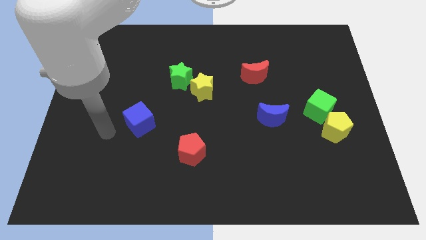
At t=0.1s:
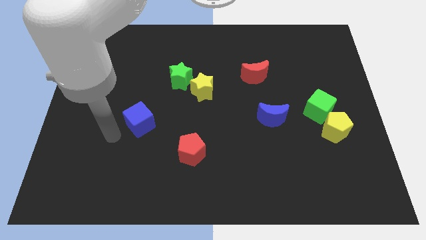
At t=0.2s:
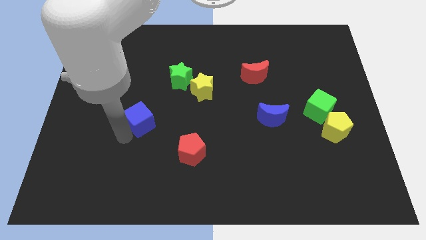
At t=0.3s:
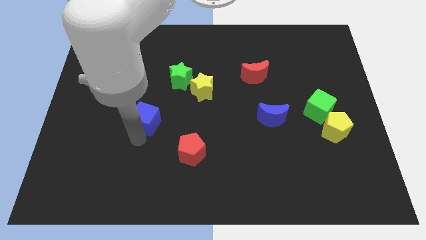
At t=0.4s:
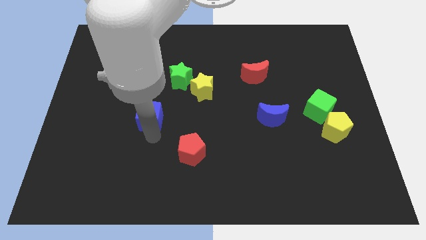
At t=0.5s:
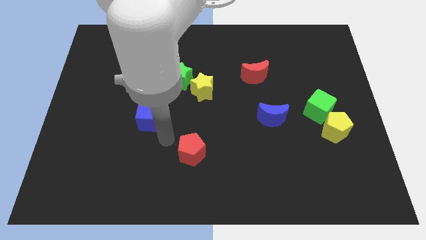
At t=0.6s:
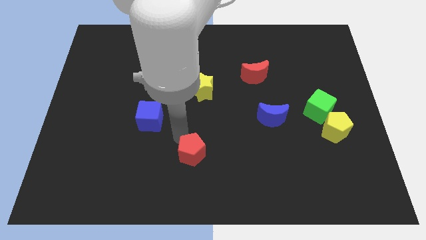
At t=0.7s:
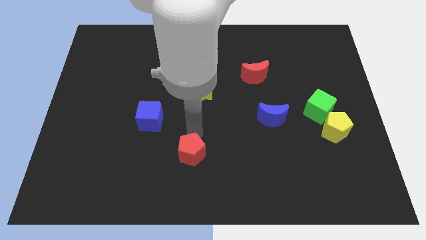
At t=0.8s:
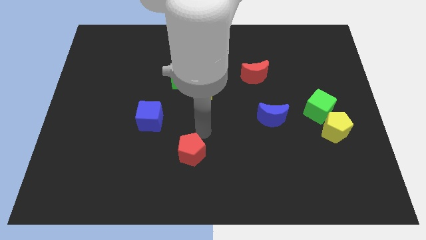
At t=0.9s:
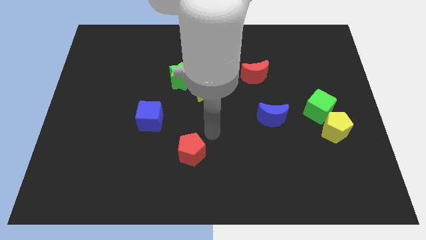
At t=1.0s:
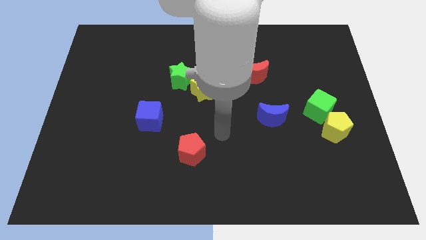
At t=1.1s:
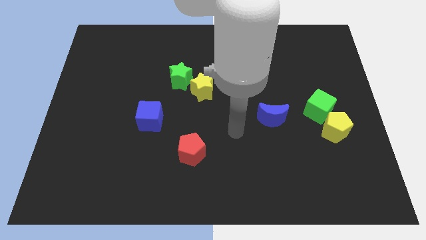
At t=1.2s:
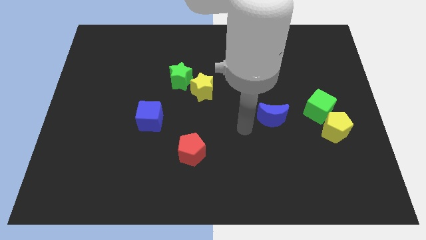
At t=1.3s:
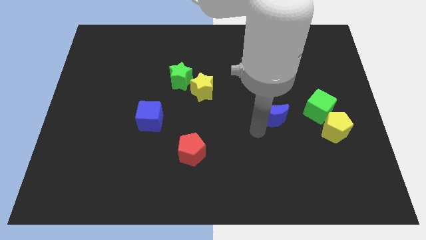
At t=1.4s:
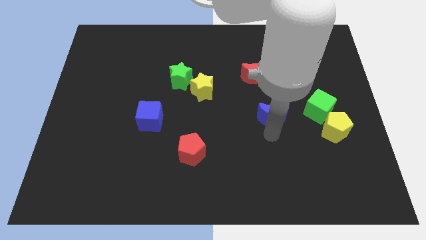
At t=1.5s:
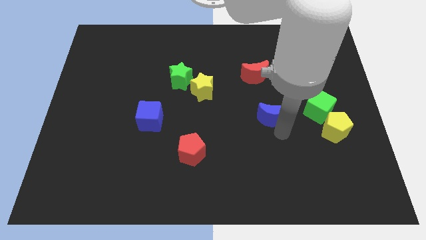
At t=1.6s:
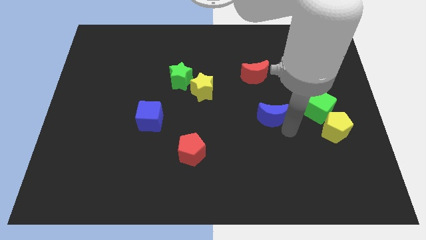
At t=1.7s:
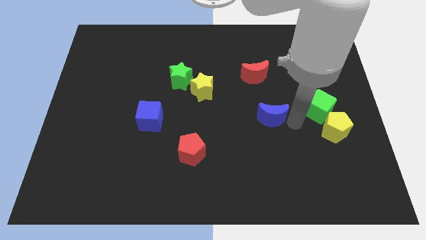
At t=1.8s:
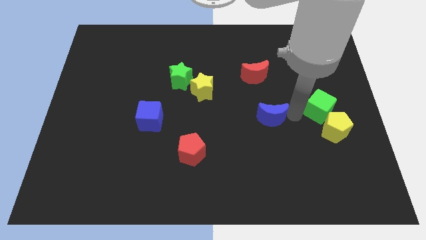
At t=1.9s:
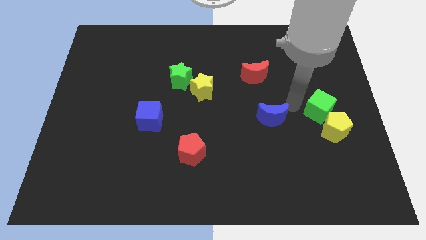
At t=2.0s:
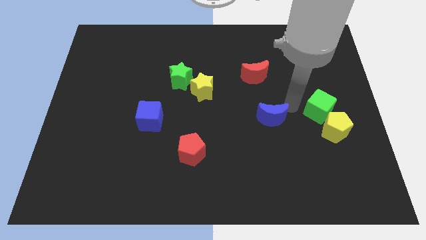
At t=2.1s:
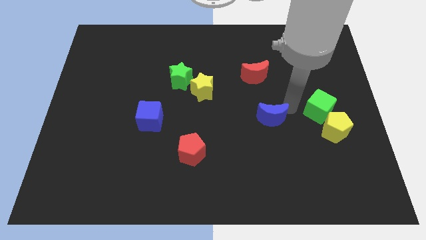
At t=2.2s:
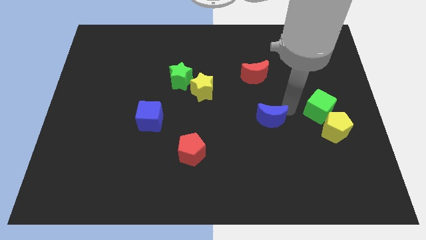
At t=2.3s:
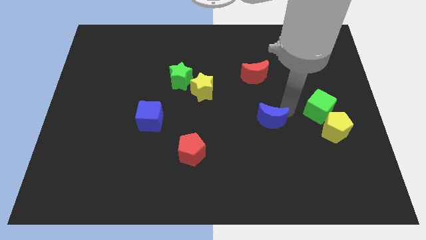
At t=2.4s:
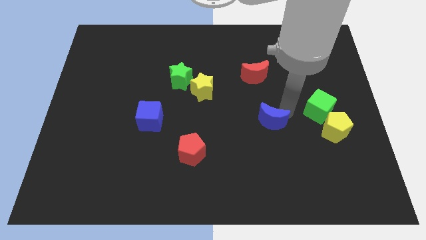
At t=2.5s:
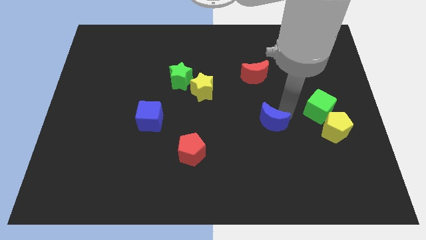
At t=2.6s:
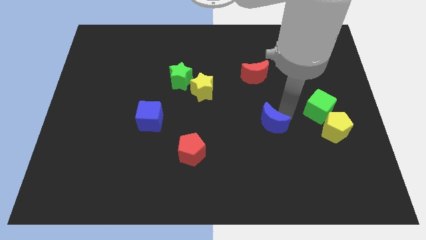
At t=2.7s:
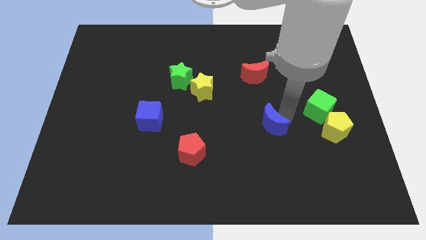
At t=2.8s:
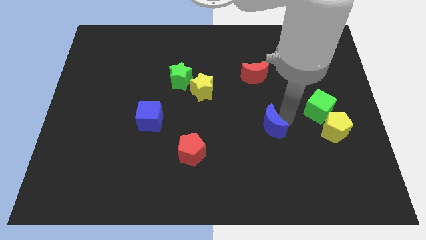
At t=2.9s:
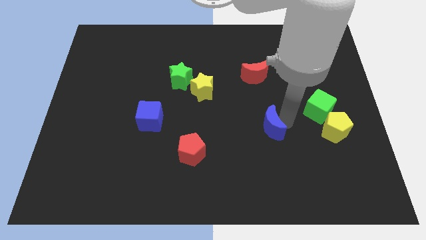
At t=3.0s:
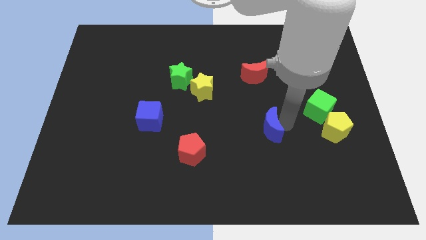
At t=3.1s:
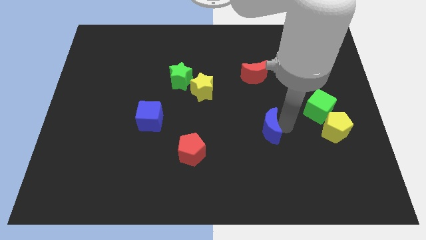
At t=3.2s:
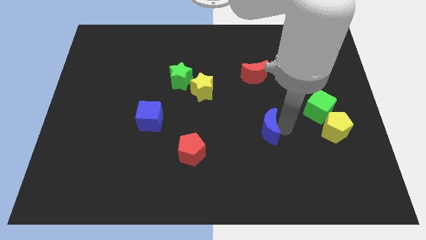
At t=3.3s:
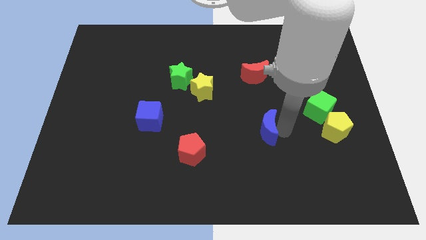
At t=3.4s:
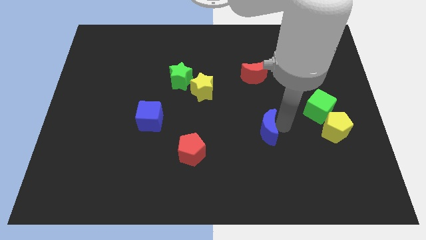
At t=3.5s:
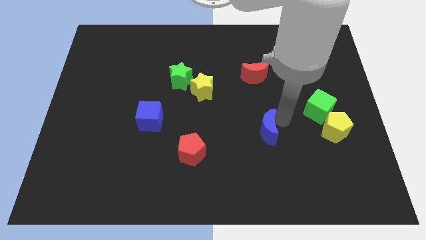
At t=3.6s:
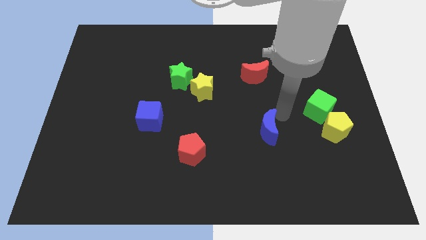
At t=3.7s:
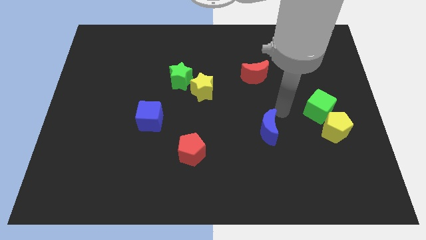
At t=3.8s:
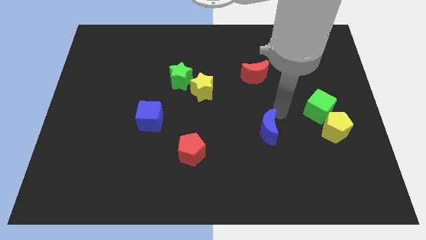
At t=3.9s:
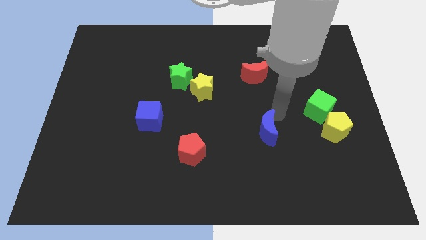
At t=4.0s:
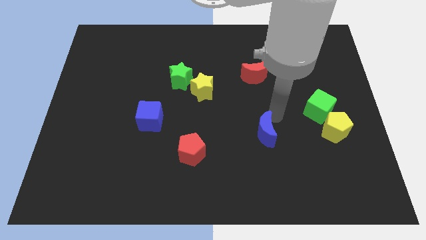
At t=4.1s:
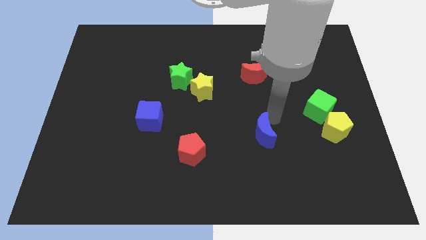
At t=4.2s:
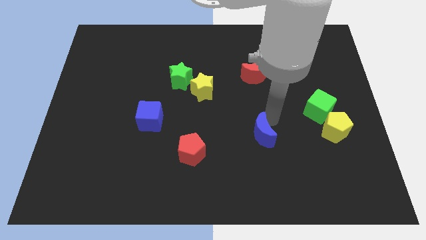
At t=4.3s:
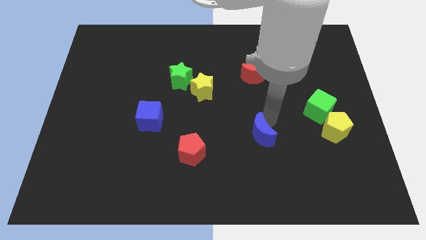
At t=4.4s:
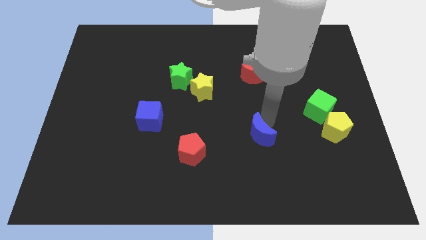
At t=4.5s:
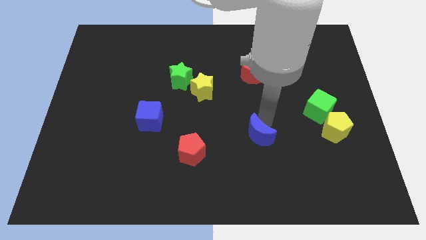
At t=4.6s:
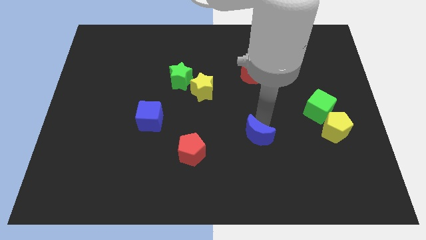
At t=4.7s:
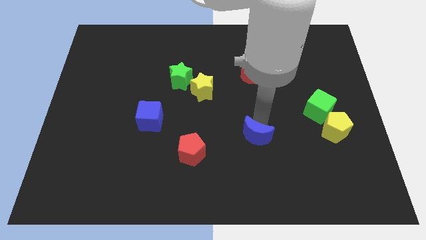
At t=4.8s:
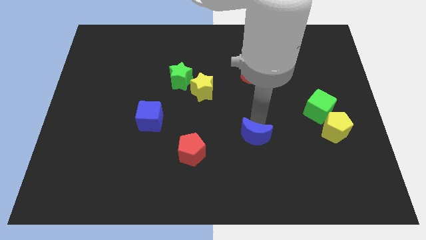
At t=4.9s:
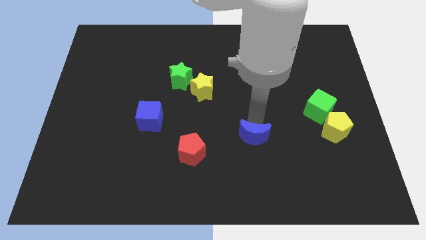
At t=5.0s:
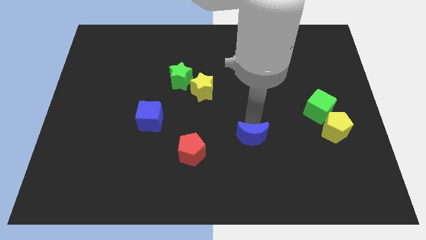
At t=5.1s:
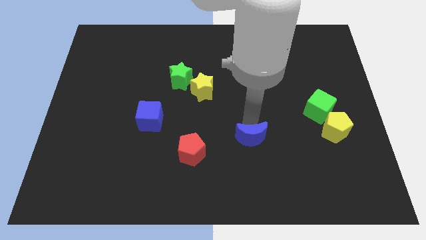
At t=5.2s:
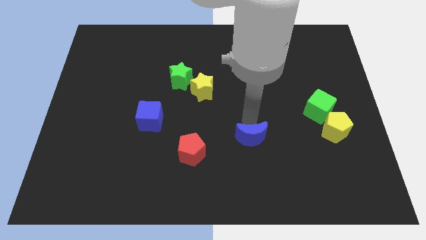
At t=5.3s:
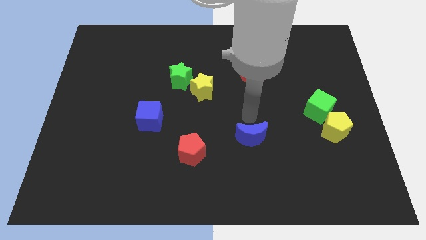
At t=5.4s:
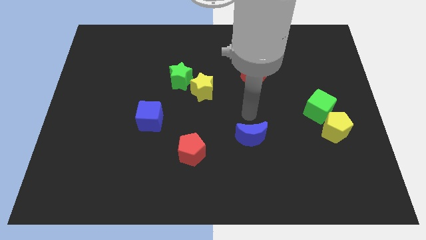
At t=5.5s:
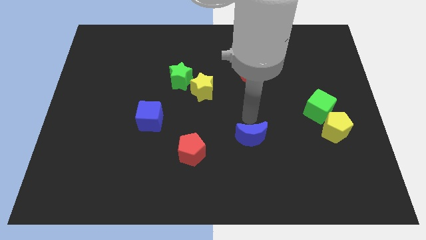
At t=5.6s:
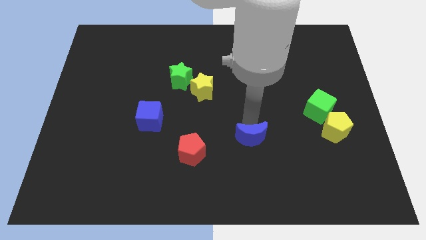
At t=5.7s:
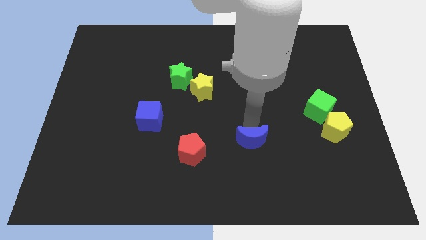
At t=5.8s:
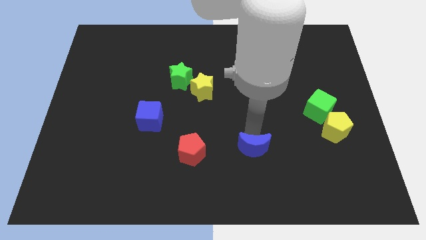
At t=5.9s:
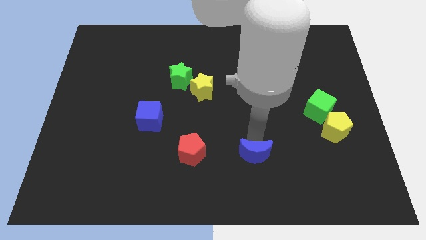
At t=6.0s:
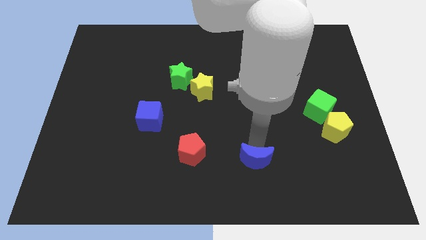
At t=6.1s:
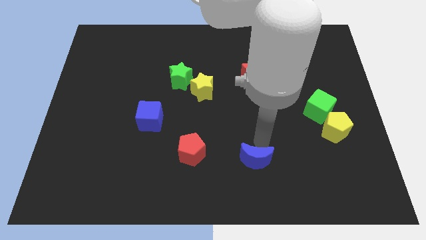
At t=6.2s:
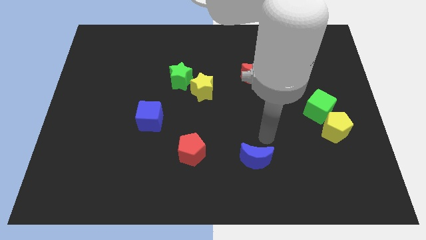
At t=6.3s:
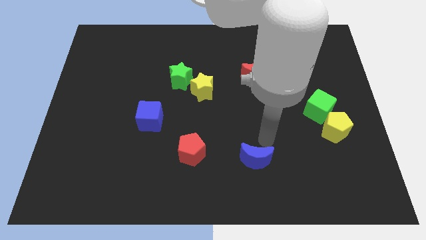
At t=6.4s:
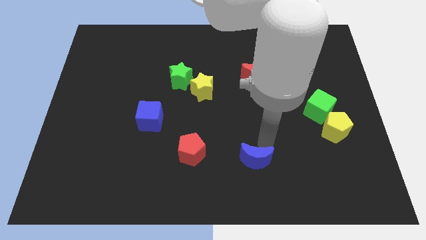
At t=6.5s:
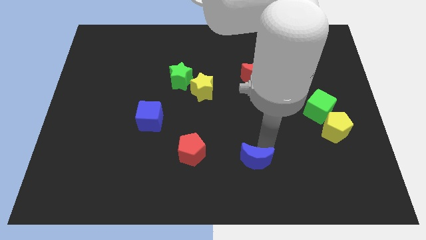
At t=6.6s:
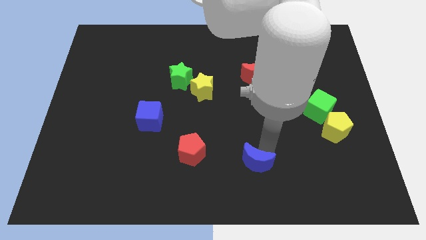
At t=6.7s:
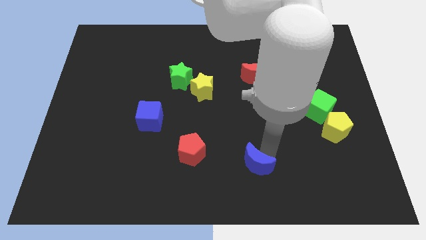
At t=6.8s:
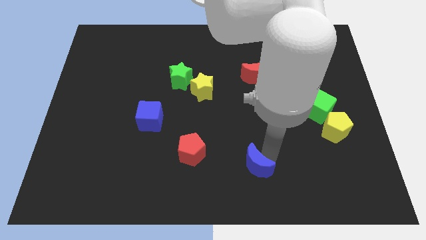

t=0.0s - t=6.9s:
put the blue moon to the bottom side
